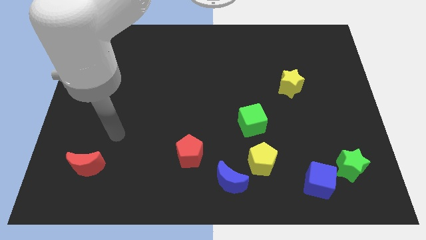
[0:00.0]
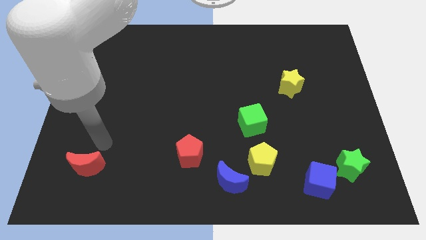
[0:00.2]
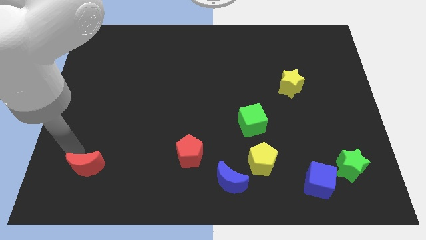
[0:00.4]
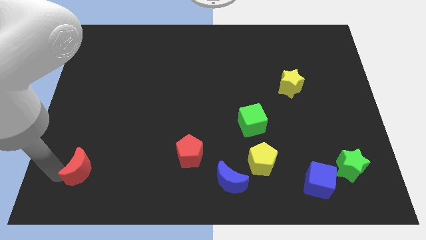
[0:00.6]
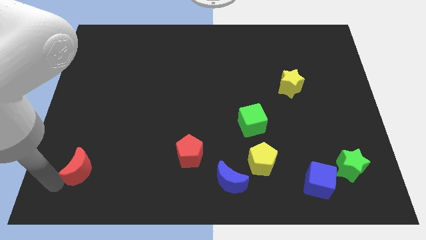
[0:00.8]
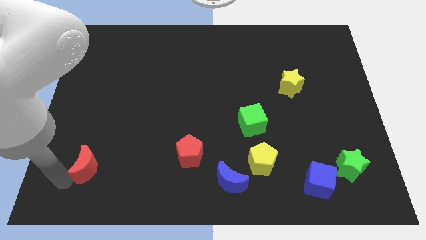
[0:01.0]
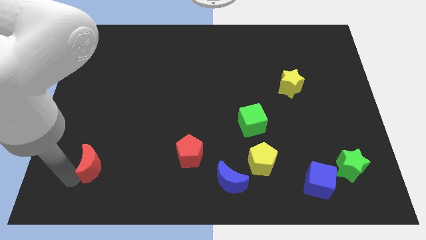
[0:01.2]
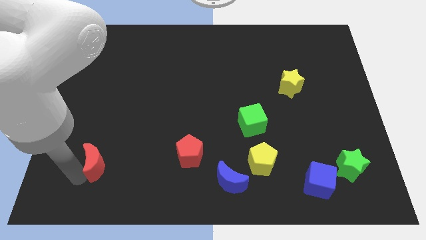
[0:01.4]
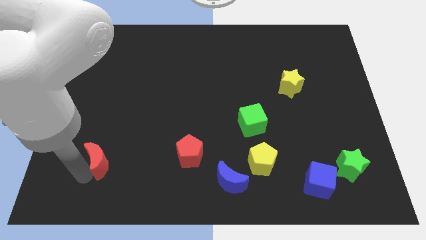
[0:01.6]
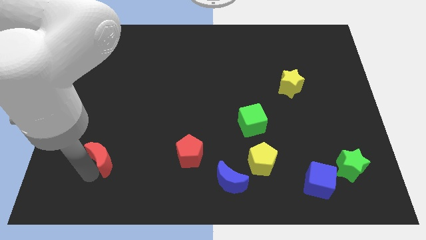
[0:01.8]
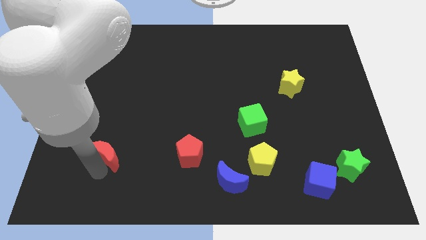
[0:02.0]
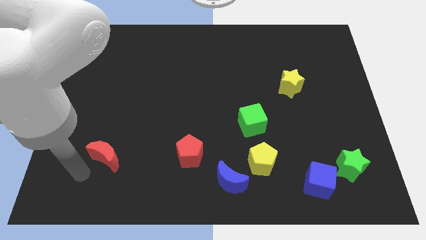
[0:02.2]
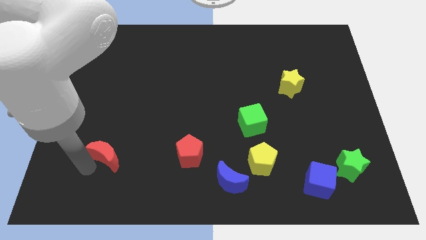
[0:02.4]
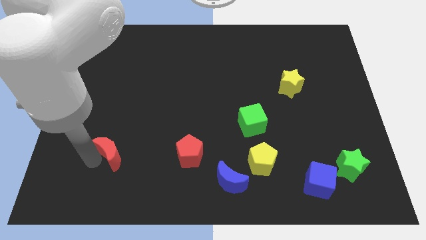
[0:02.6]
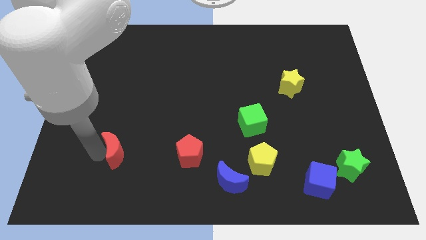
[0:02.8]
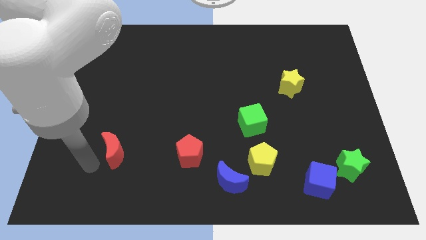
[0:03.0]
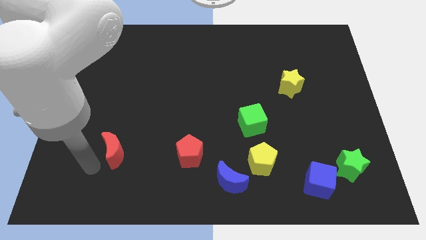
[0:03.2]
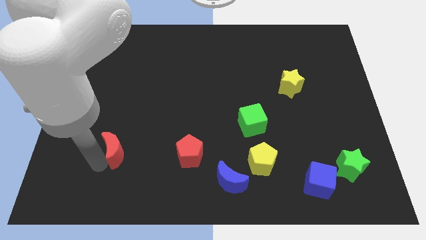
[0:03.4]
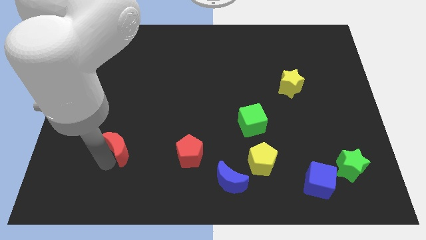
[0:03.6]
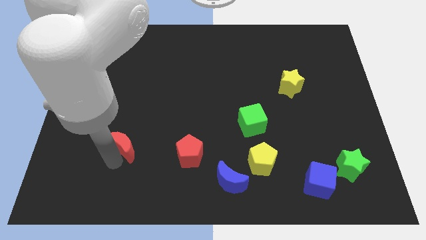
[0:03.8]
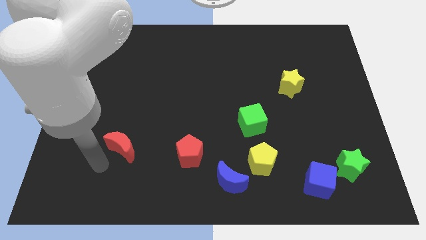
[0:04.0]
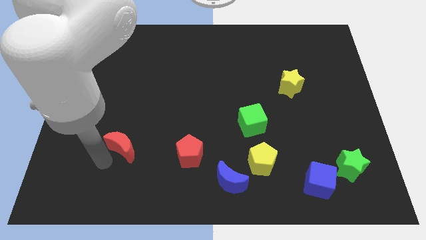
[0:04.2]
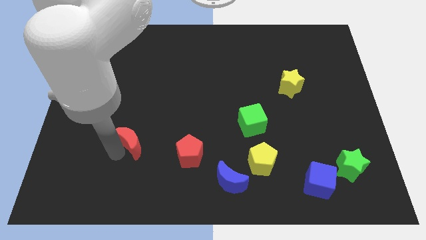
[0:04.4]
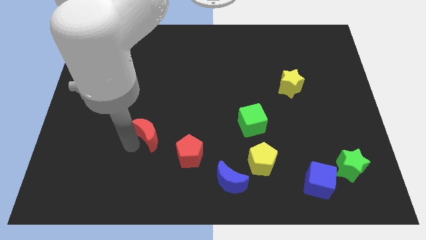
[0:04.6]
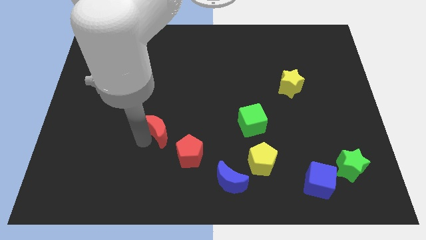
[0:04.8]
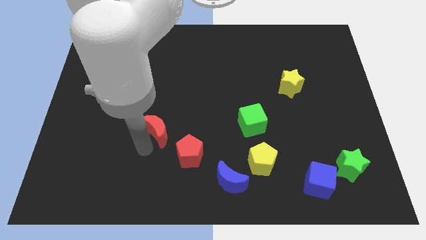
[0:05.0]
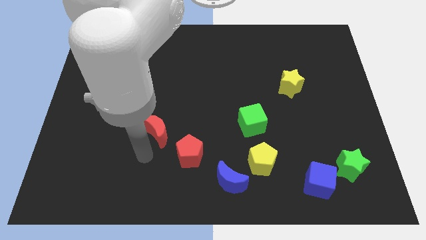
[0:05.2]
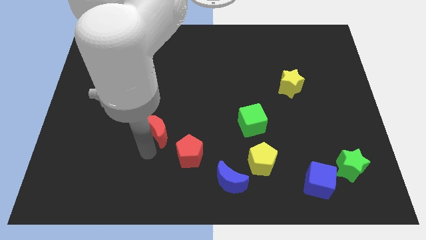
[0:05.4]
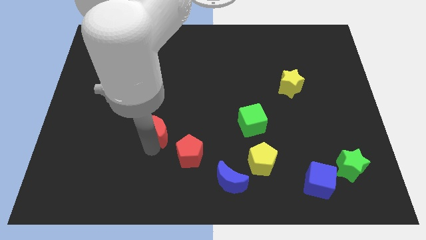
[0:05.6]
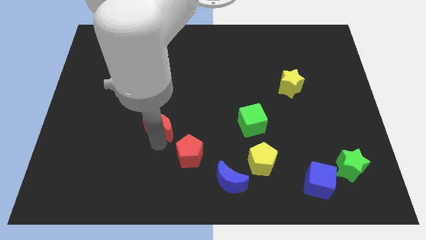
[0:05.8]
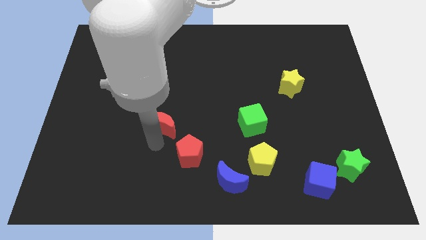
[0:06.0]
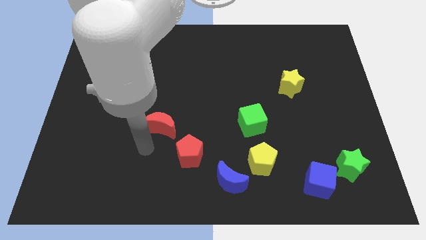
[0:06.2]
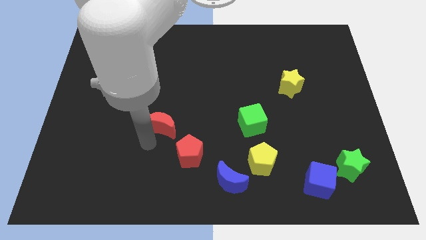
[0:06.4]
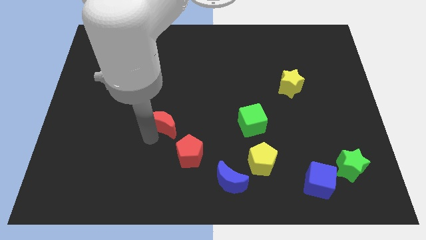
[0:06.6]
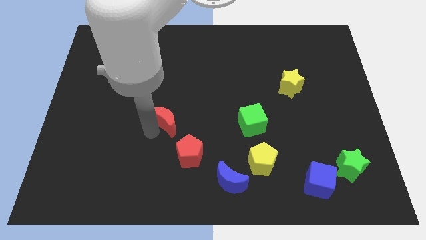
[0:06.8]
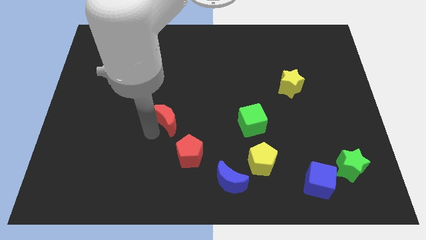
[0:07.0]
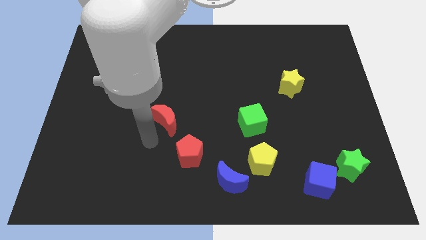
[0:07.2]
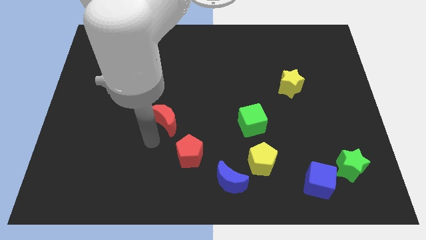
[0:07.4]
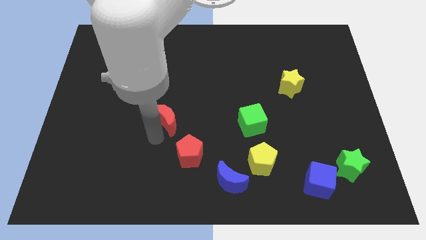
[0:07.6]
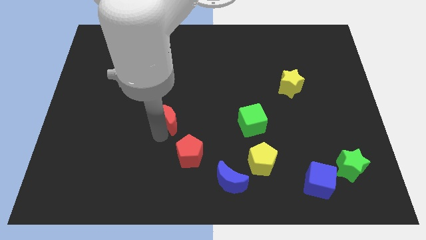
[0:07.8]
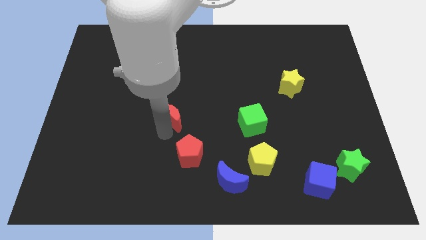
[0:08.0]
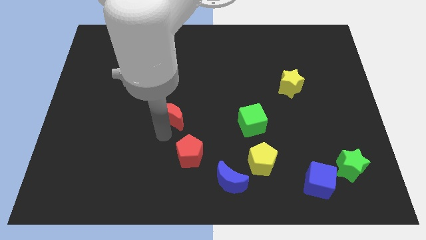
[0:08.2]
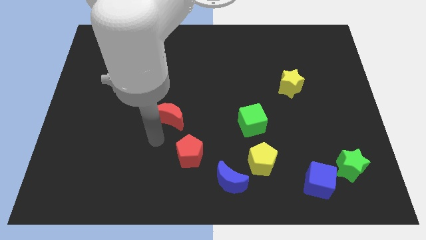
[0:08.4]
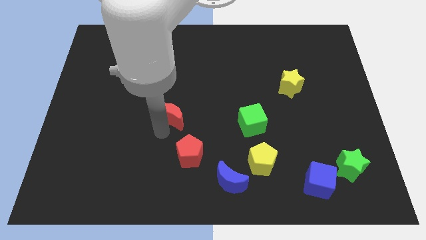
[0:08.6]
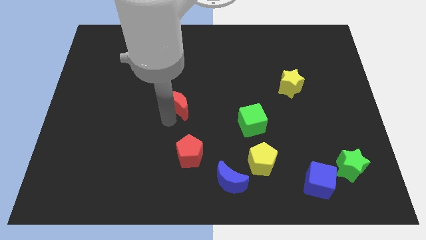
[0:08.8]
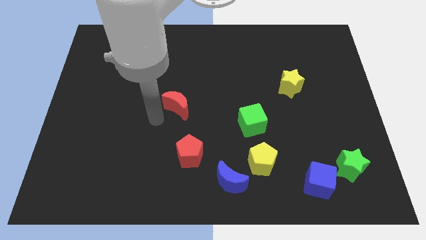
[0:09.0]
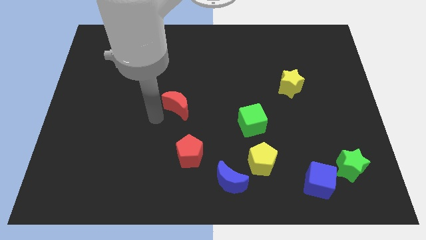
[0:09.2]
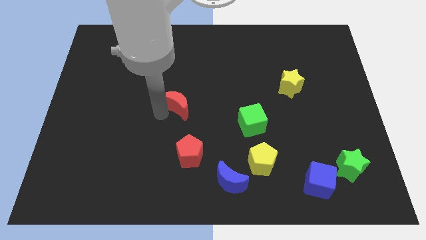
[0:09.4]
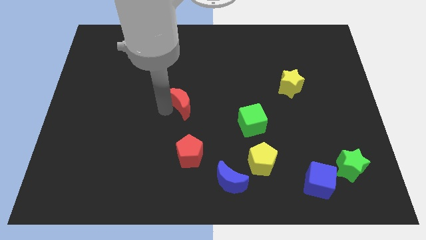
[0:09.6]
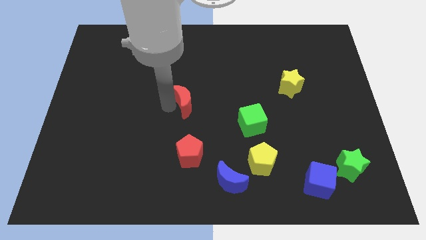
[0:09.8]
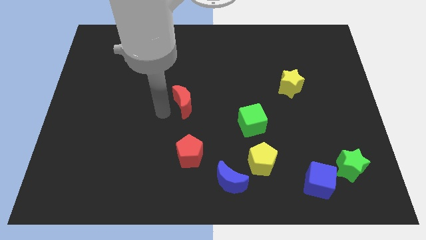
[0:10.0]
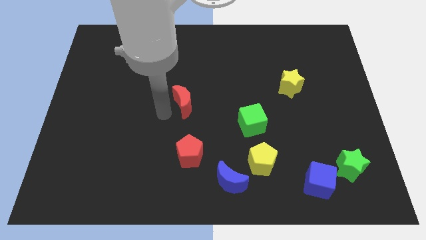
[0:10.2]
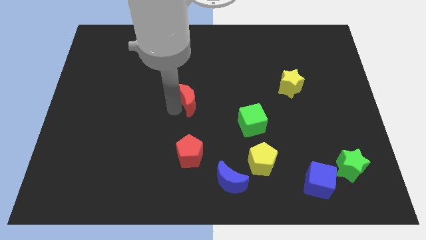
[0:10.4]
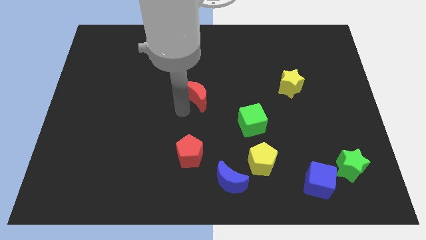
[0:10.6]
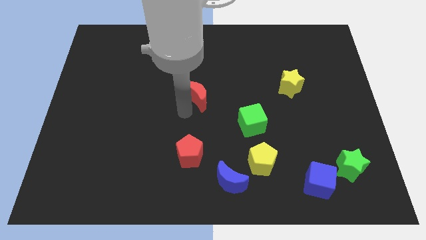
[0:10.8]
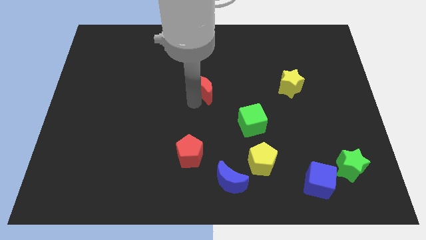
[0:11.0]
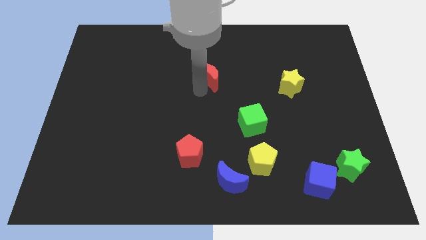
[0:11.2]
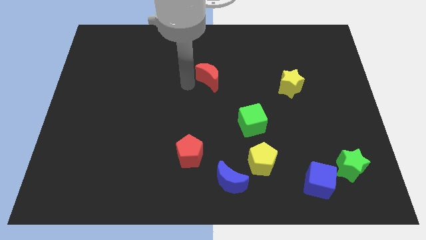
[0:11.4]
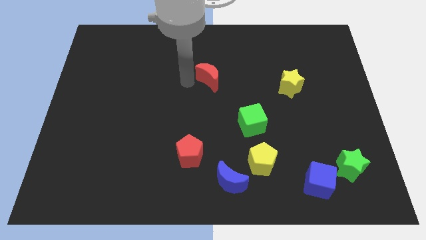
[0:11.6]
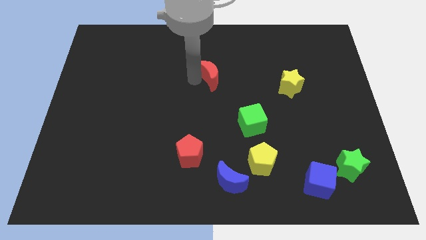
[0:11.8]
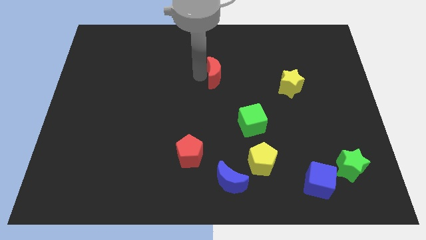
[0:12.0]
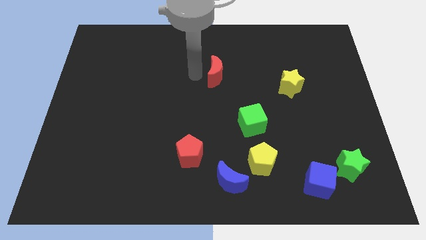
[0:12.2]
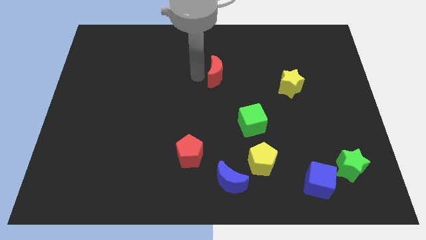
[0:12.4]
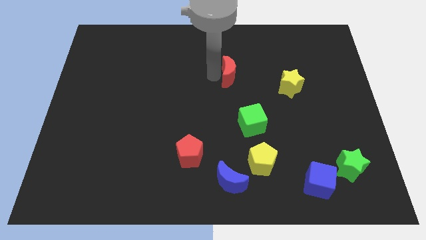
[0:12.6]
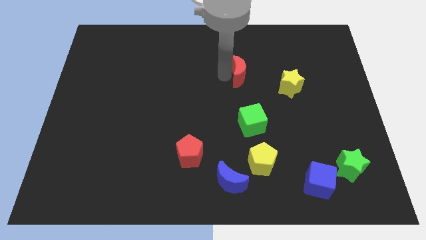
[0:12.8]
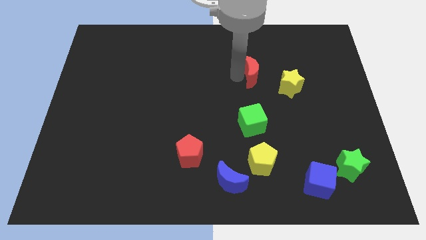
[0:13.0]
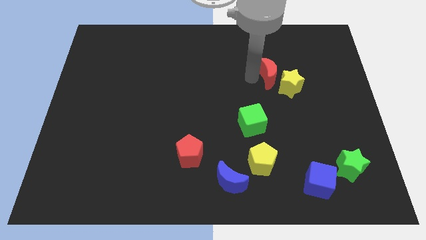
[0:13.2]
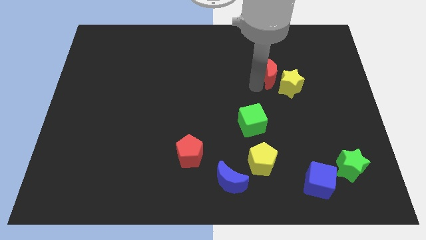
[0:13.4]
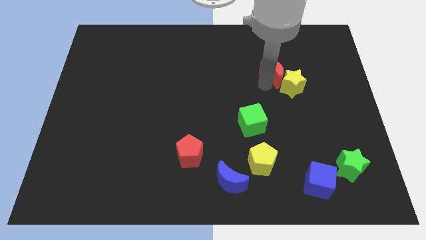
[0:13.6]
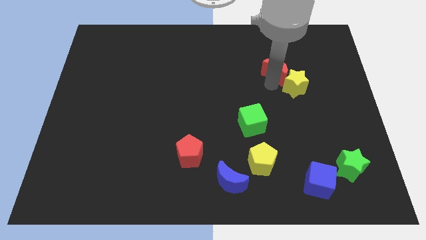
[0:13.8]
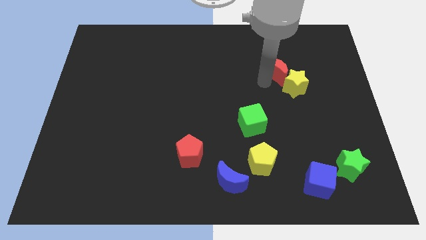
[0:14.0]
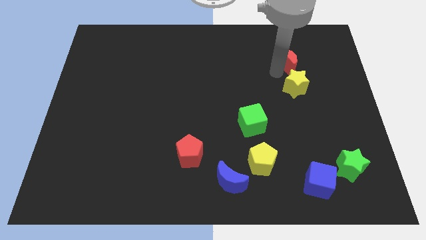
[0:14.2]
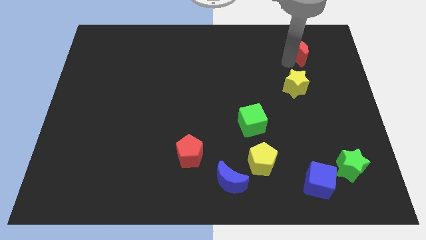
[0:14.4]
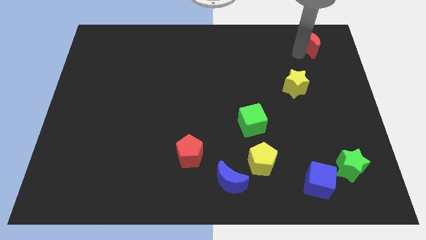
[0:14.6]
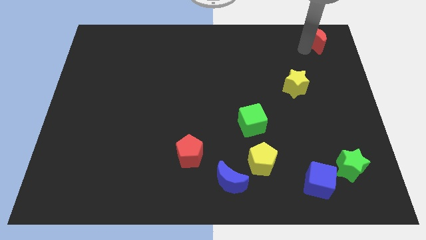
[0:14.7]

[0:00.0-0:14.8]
push the red moon to the upper right corner

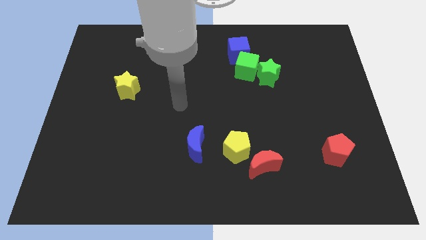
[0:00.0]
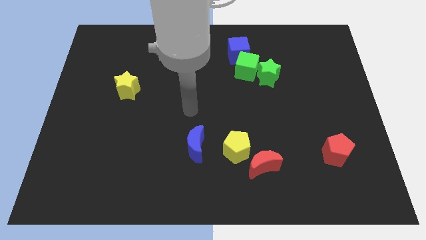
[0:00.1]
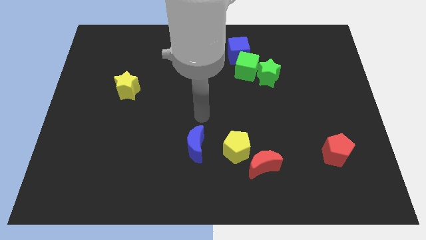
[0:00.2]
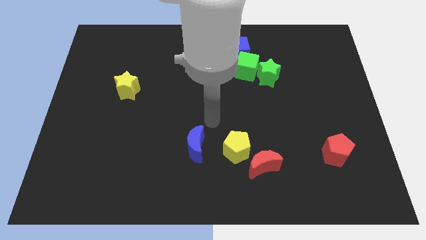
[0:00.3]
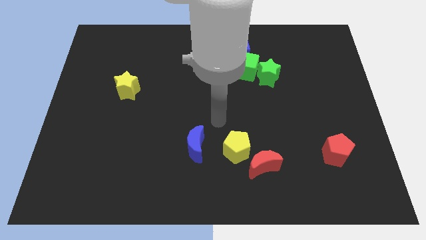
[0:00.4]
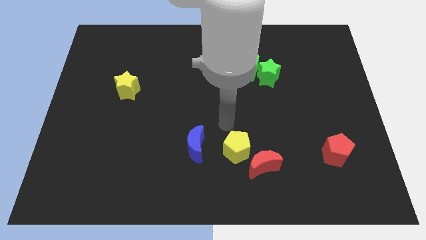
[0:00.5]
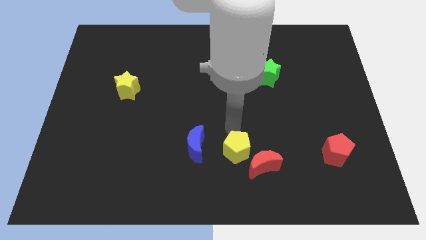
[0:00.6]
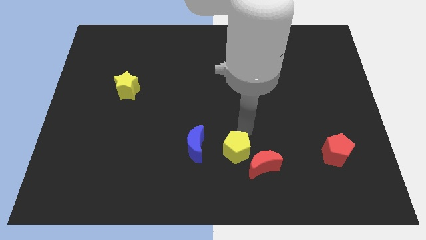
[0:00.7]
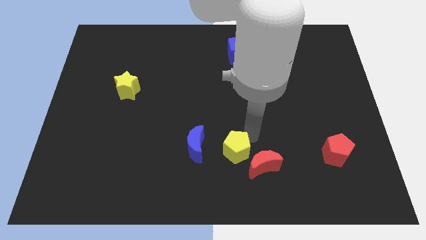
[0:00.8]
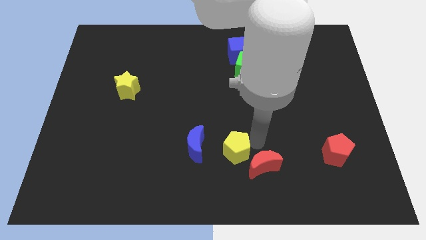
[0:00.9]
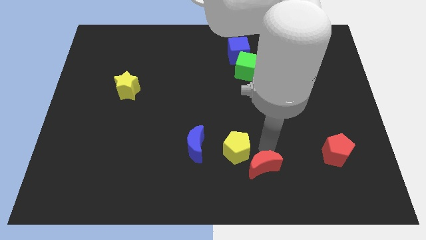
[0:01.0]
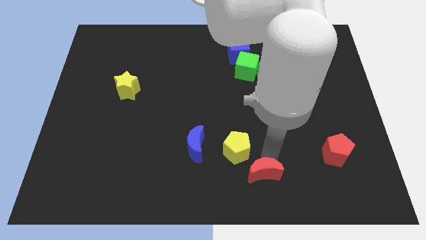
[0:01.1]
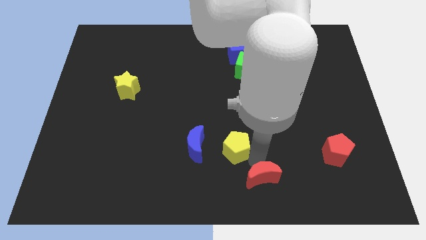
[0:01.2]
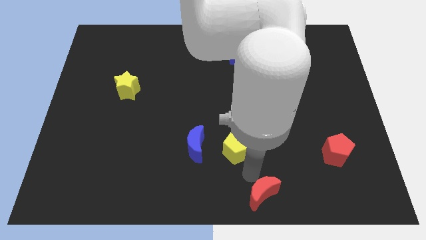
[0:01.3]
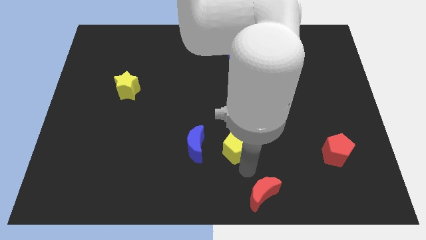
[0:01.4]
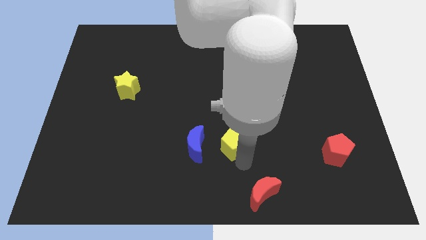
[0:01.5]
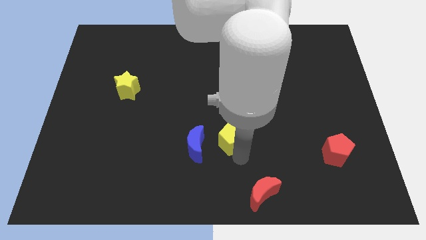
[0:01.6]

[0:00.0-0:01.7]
push the yellow pentagon to the middle
